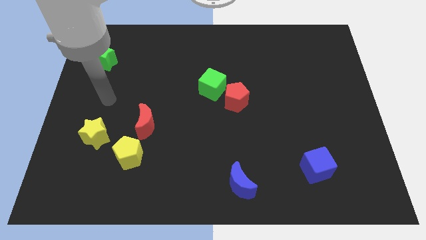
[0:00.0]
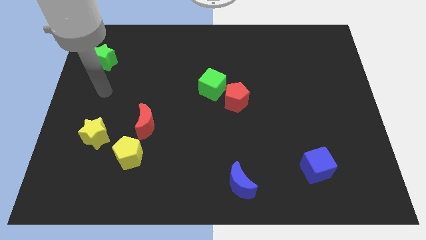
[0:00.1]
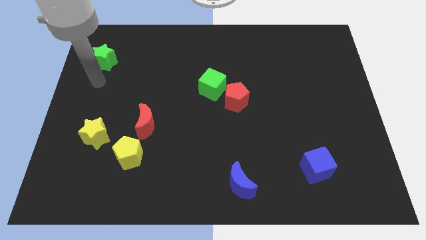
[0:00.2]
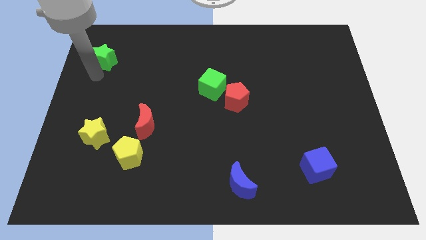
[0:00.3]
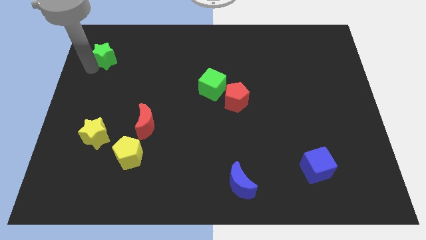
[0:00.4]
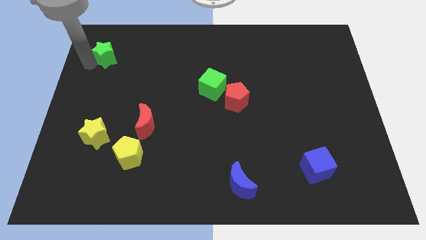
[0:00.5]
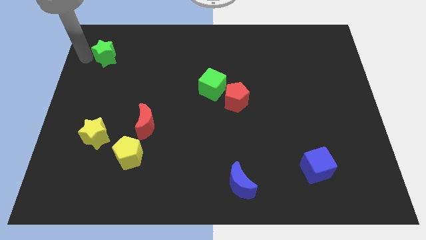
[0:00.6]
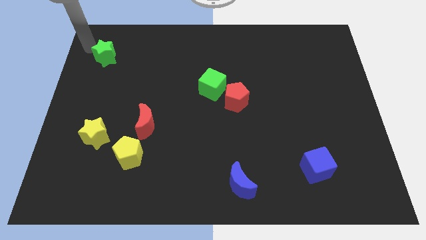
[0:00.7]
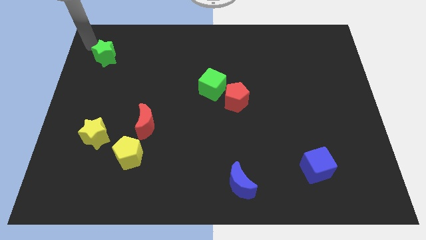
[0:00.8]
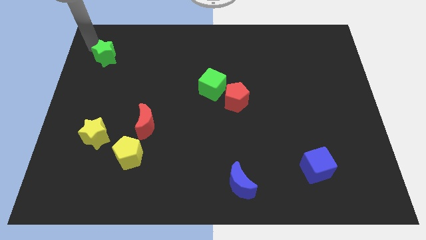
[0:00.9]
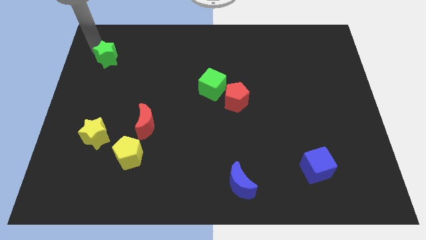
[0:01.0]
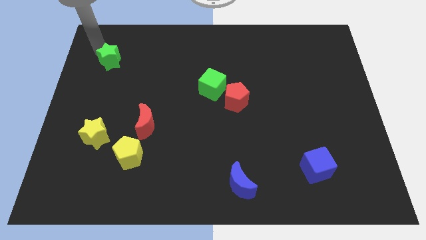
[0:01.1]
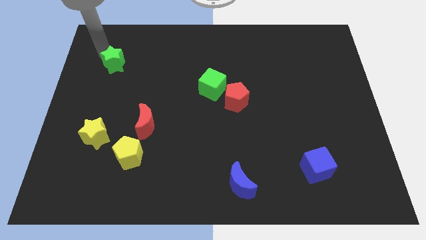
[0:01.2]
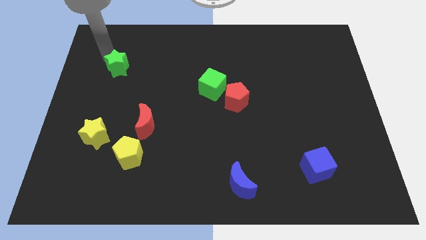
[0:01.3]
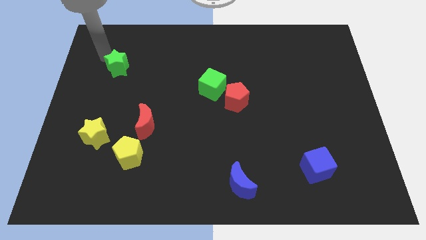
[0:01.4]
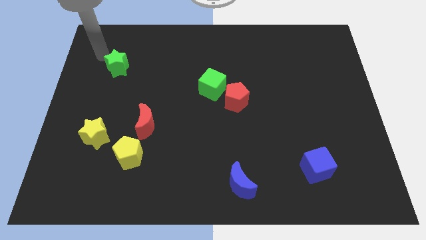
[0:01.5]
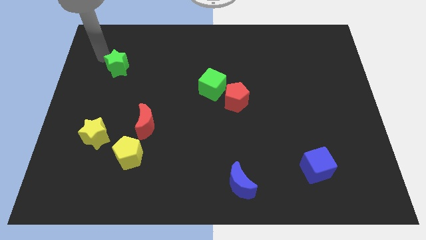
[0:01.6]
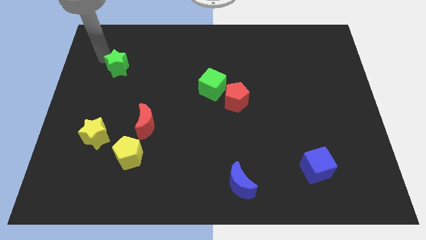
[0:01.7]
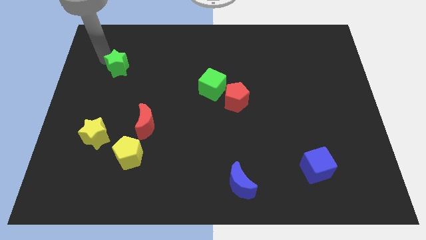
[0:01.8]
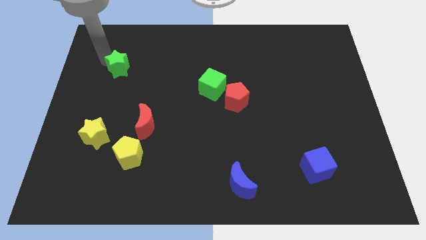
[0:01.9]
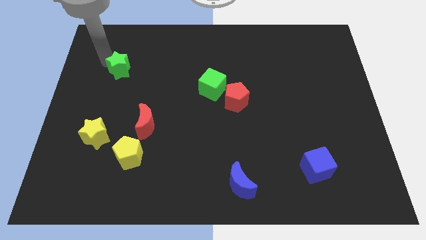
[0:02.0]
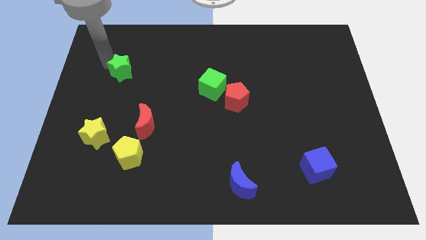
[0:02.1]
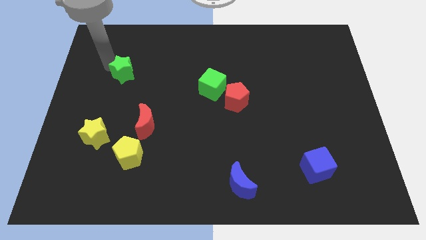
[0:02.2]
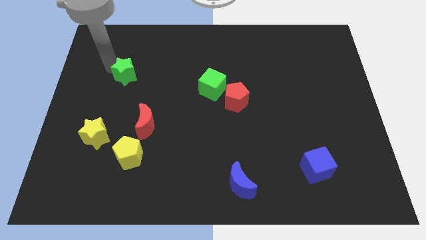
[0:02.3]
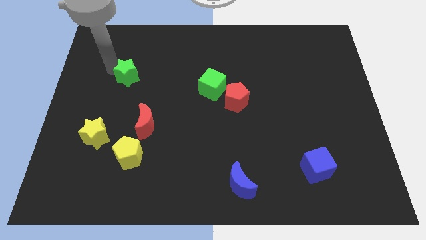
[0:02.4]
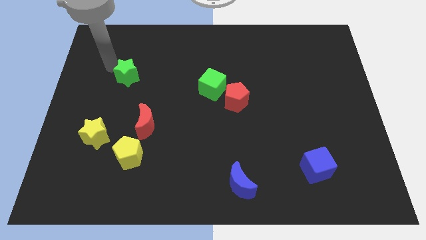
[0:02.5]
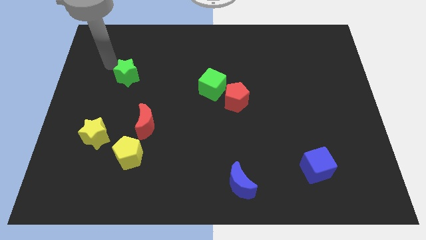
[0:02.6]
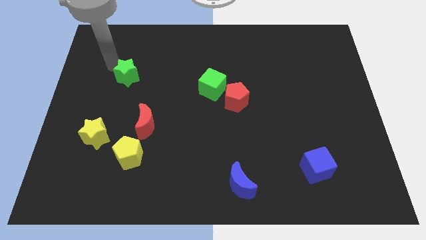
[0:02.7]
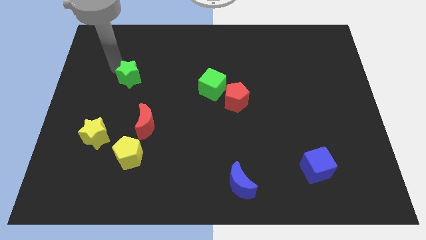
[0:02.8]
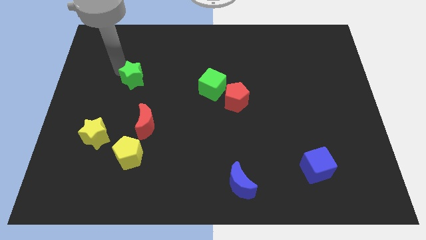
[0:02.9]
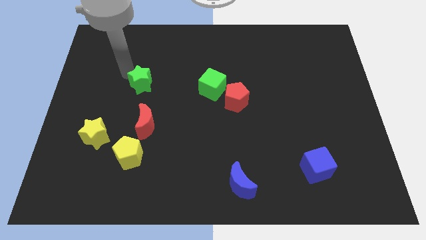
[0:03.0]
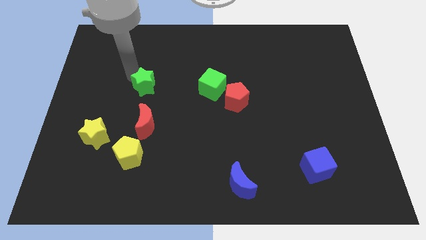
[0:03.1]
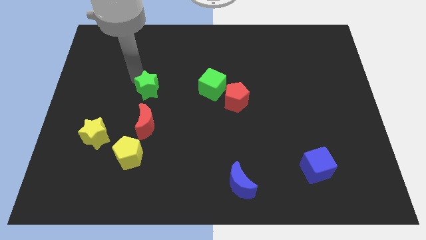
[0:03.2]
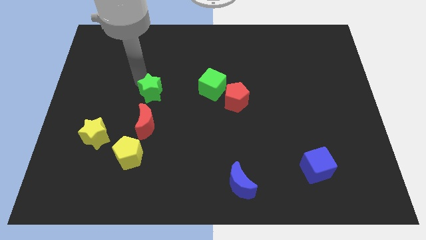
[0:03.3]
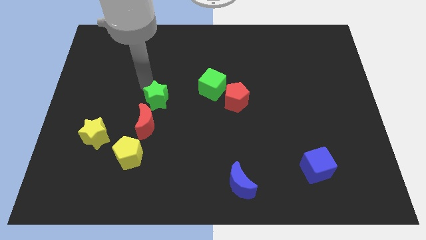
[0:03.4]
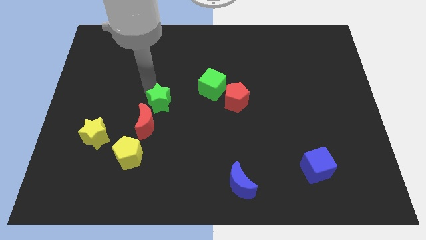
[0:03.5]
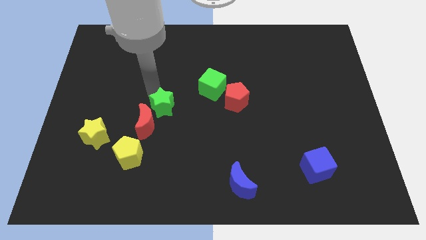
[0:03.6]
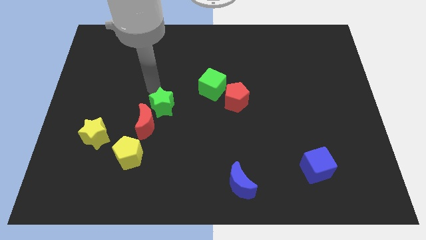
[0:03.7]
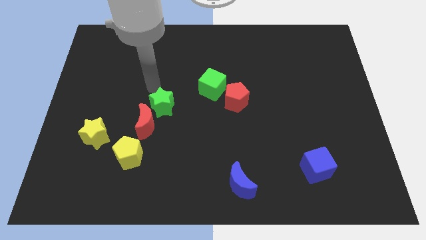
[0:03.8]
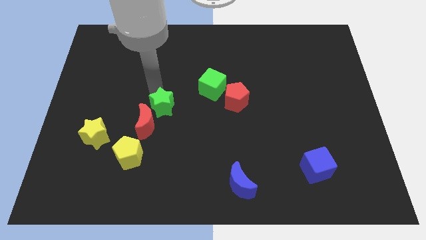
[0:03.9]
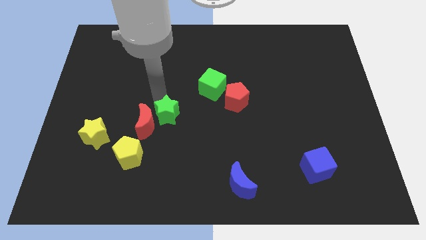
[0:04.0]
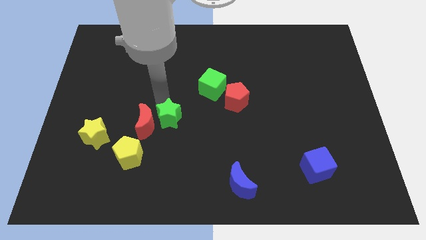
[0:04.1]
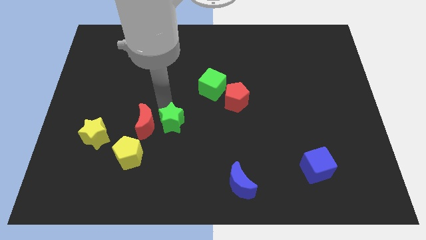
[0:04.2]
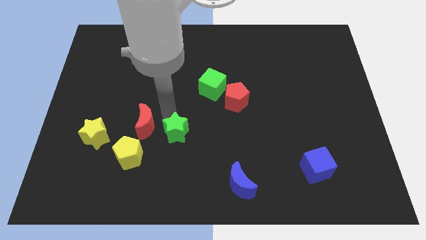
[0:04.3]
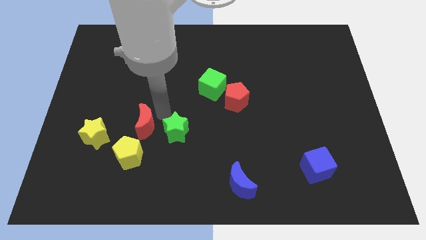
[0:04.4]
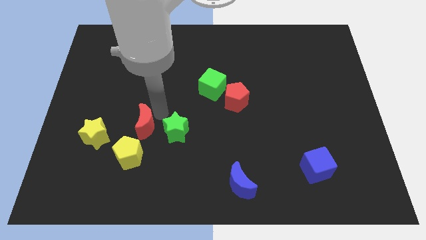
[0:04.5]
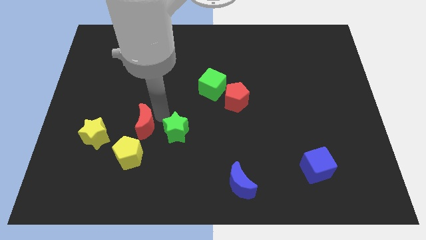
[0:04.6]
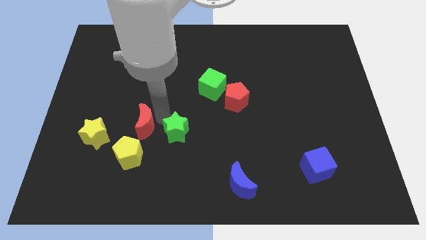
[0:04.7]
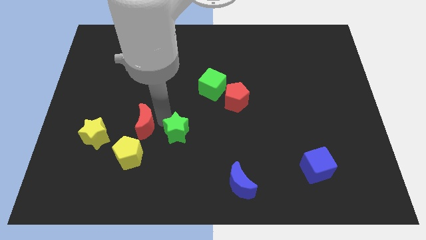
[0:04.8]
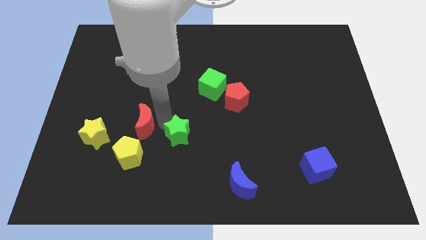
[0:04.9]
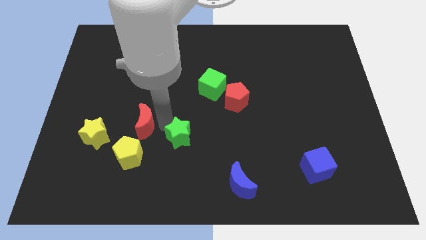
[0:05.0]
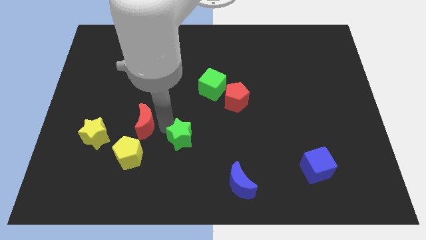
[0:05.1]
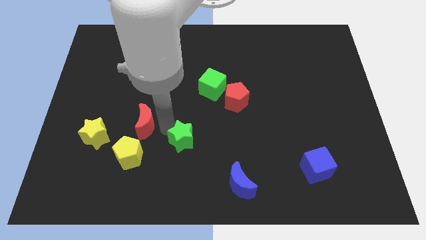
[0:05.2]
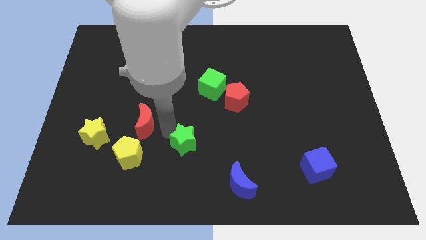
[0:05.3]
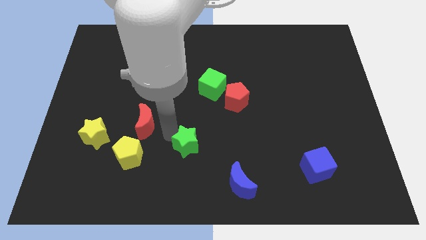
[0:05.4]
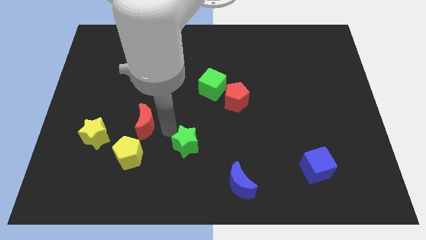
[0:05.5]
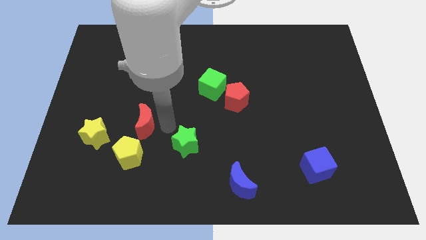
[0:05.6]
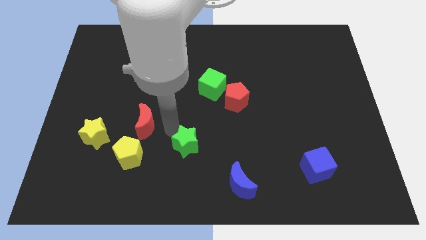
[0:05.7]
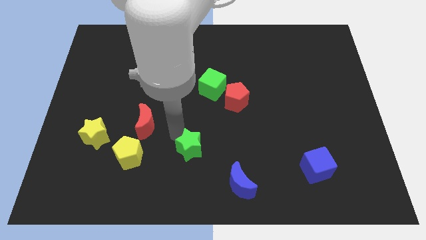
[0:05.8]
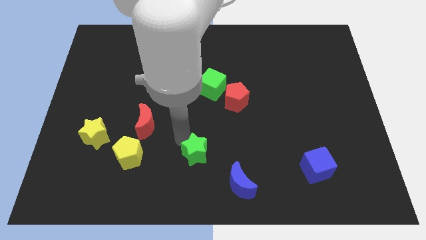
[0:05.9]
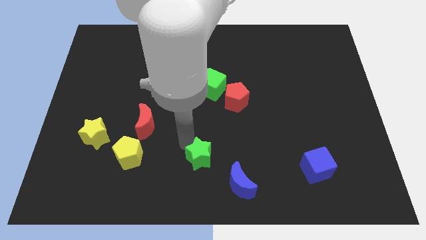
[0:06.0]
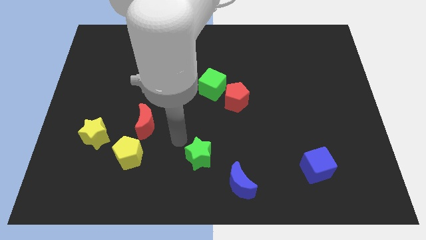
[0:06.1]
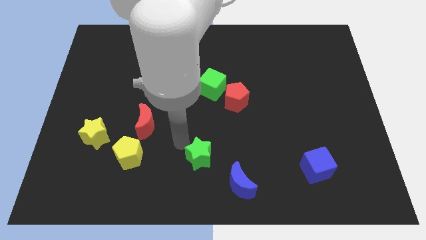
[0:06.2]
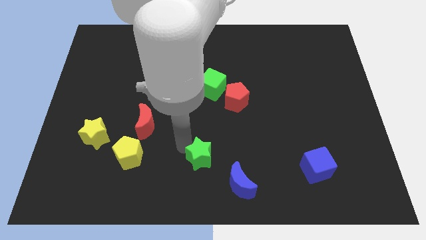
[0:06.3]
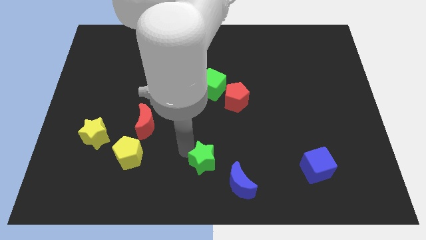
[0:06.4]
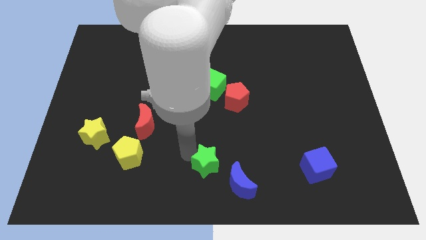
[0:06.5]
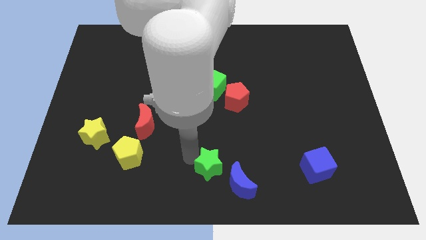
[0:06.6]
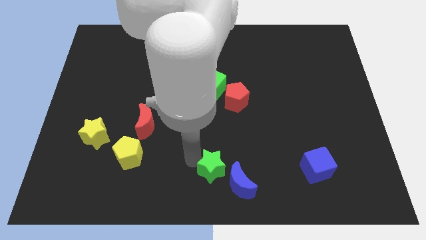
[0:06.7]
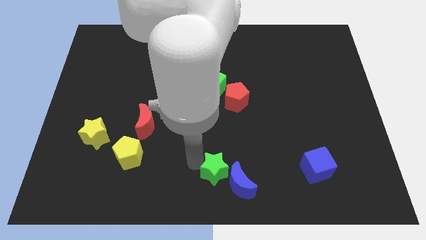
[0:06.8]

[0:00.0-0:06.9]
push the green star close to the blue moon
